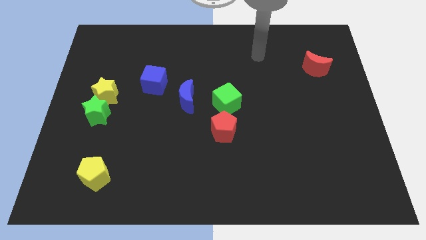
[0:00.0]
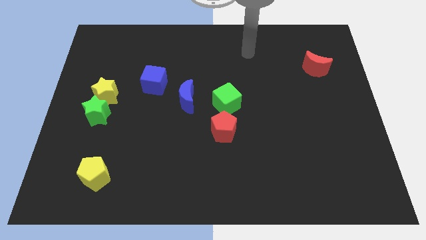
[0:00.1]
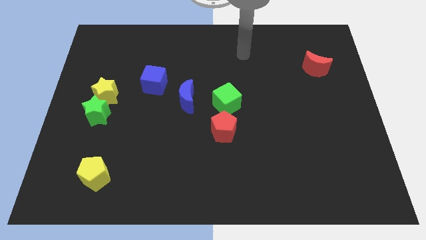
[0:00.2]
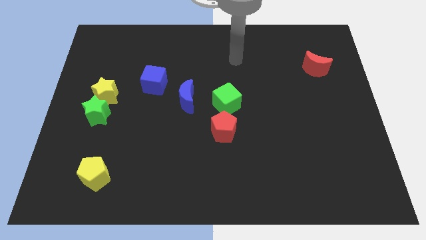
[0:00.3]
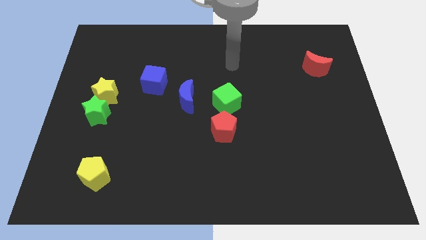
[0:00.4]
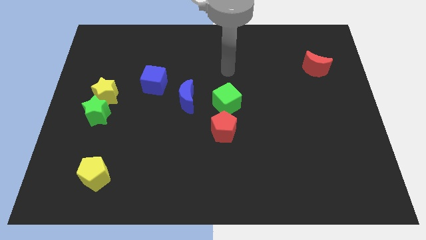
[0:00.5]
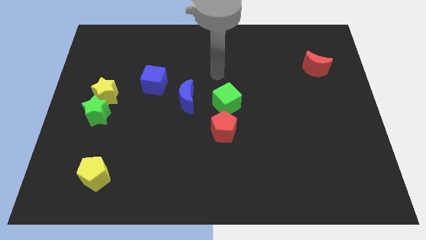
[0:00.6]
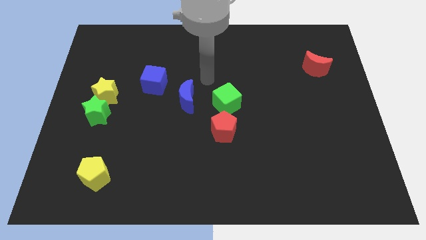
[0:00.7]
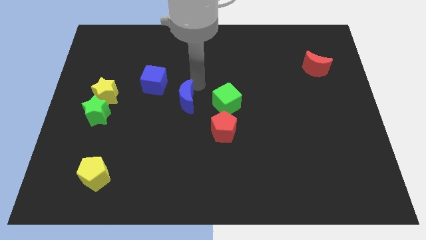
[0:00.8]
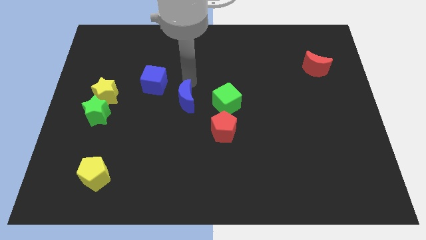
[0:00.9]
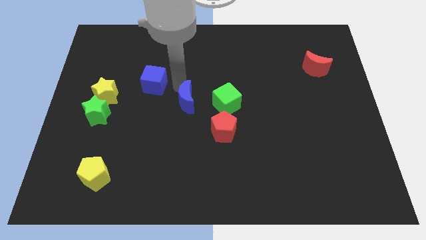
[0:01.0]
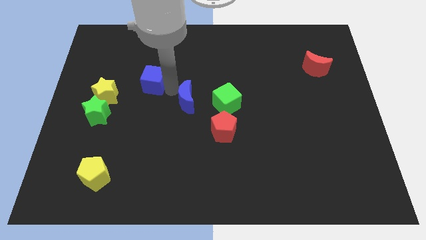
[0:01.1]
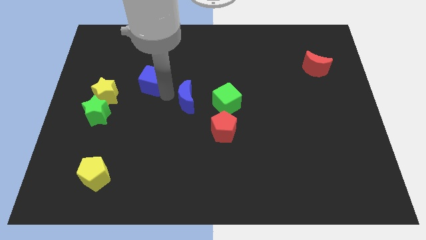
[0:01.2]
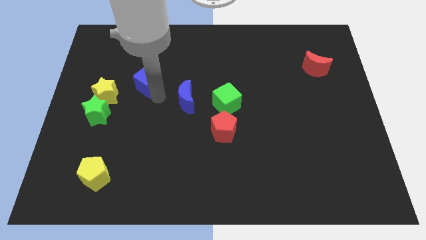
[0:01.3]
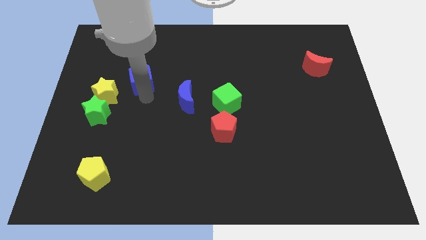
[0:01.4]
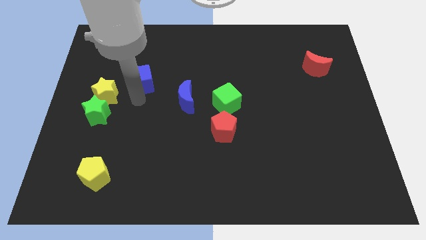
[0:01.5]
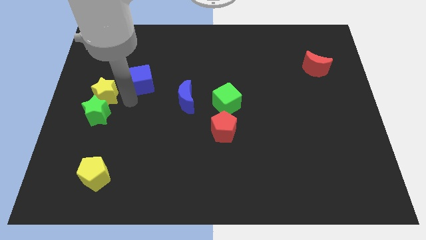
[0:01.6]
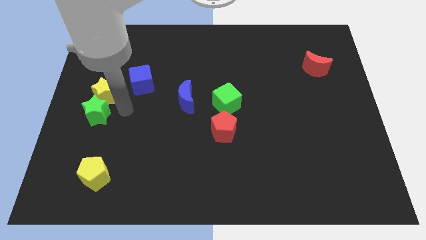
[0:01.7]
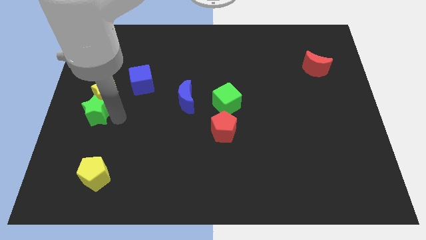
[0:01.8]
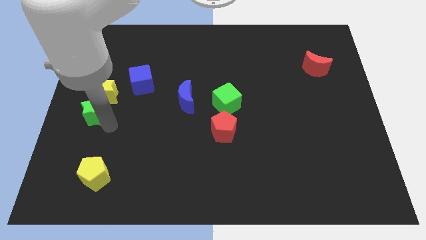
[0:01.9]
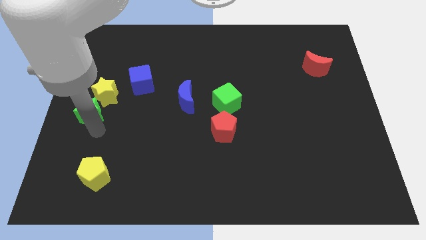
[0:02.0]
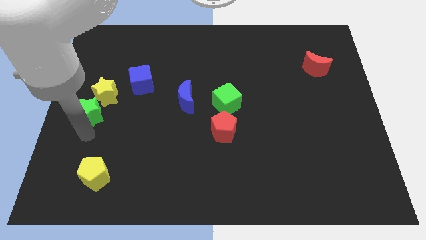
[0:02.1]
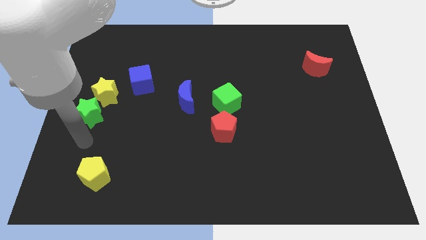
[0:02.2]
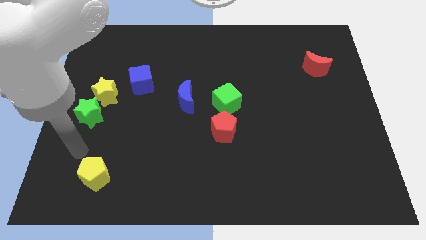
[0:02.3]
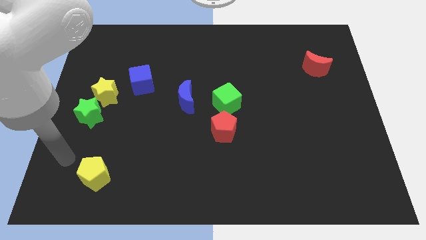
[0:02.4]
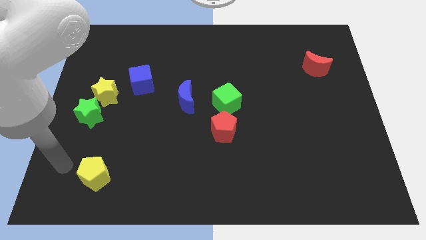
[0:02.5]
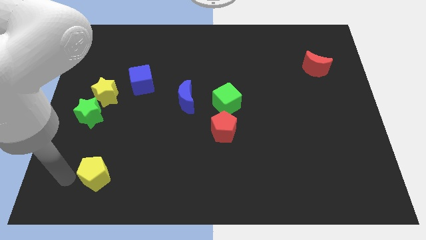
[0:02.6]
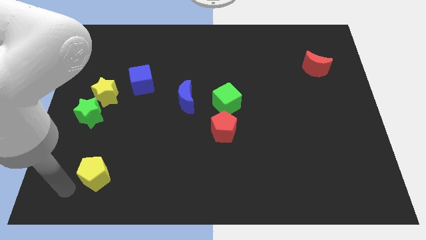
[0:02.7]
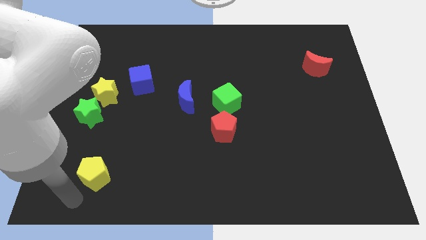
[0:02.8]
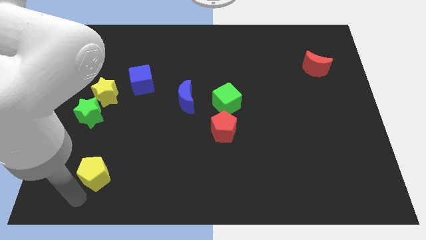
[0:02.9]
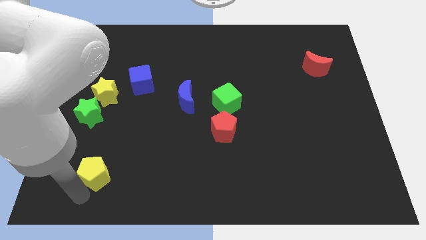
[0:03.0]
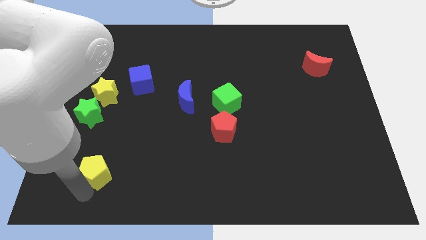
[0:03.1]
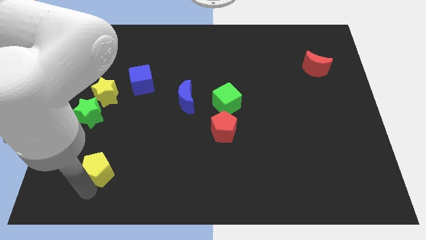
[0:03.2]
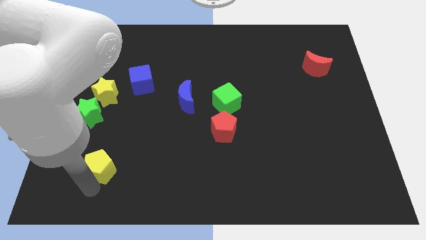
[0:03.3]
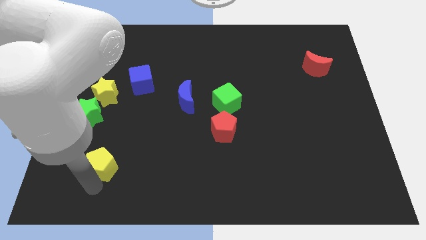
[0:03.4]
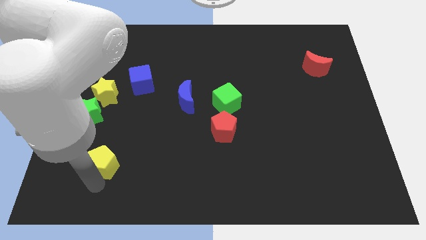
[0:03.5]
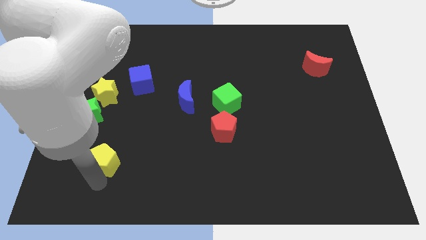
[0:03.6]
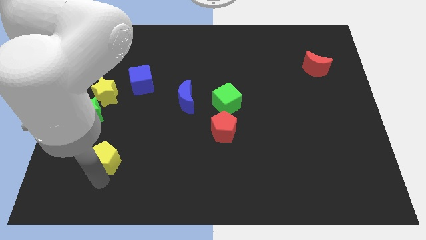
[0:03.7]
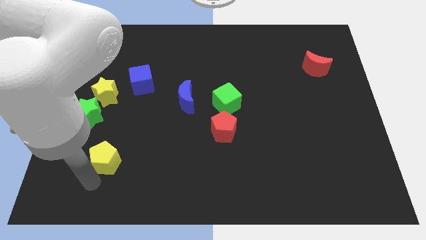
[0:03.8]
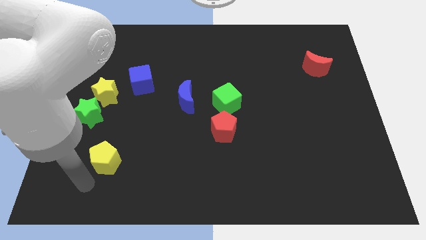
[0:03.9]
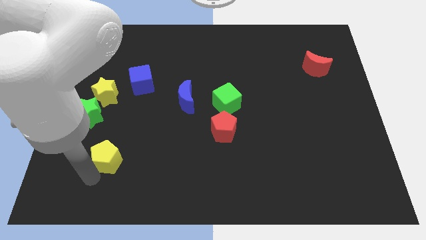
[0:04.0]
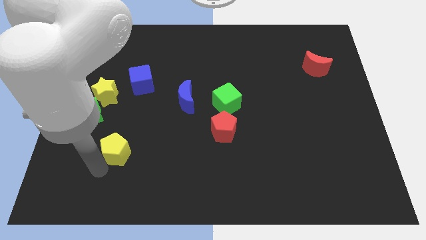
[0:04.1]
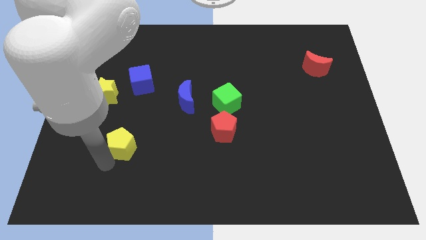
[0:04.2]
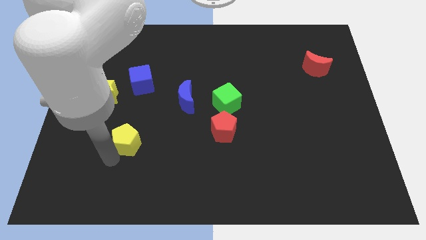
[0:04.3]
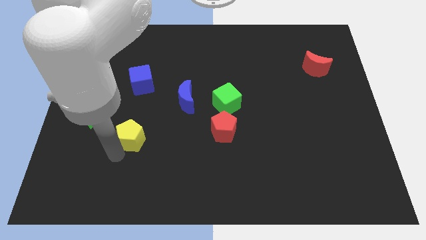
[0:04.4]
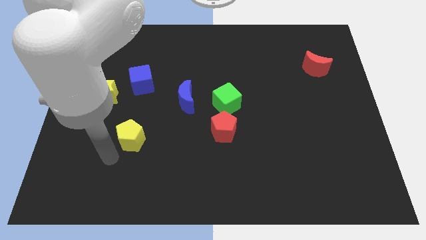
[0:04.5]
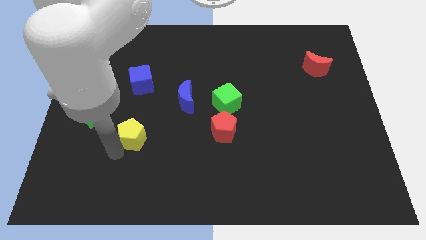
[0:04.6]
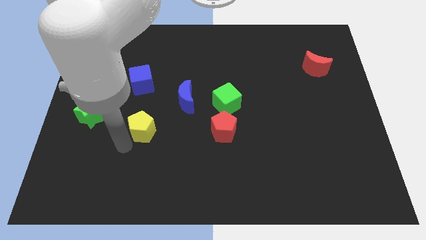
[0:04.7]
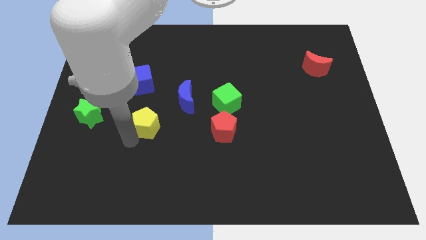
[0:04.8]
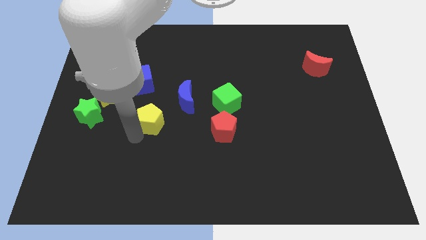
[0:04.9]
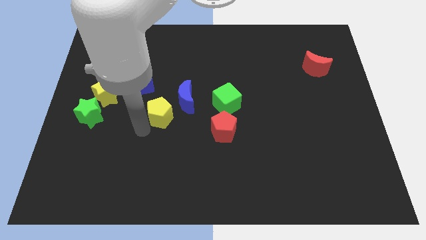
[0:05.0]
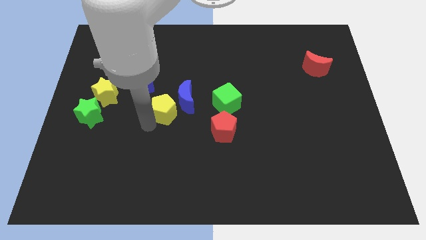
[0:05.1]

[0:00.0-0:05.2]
slide the yellow pentagon close to the blue moon

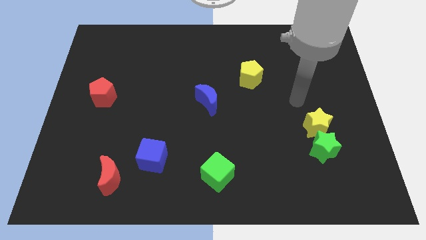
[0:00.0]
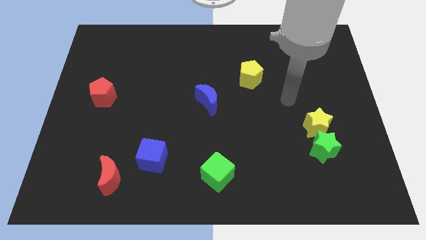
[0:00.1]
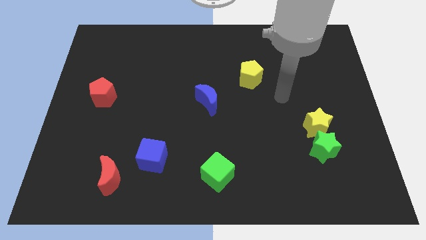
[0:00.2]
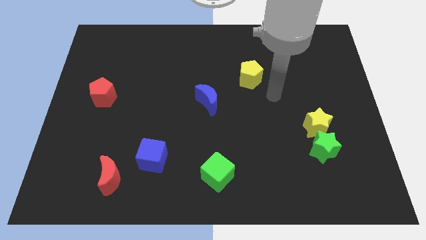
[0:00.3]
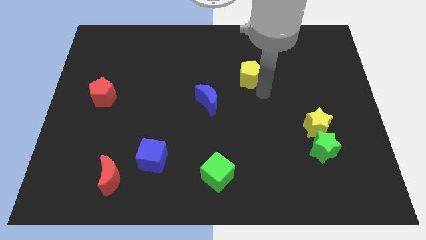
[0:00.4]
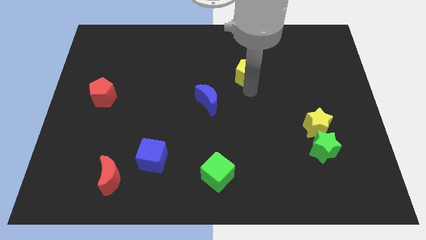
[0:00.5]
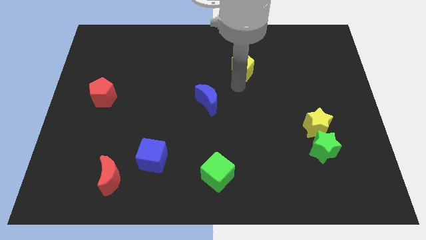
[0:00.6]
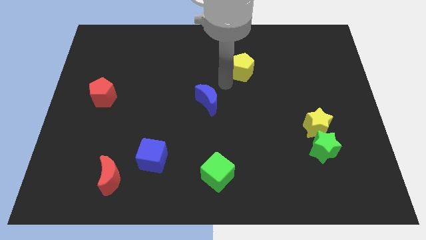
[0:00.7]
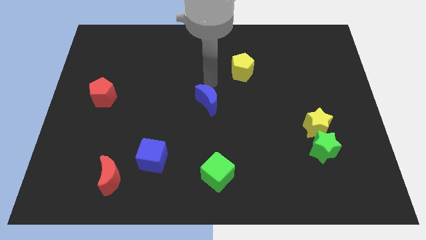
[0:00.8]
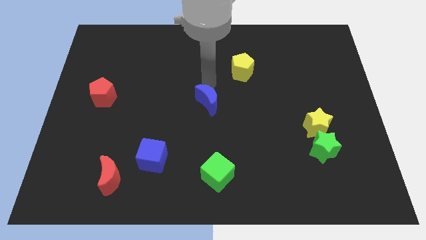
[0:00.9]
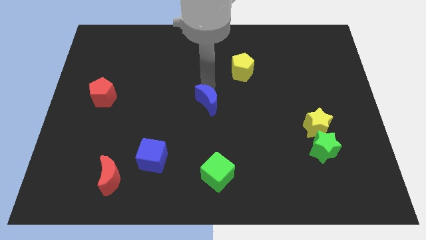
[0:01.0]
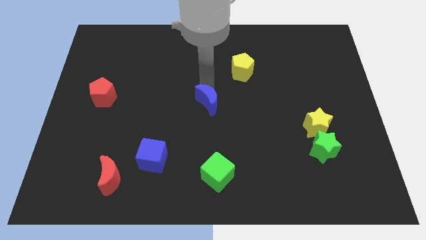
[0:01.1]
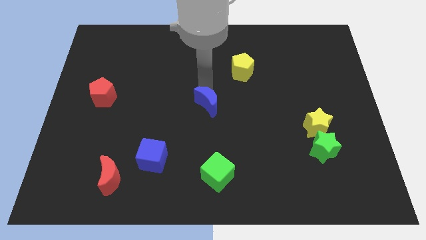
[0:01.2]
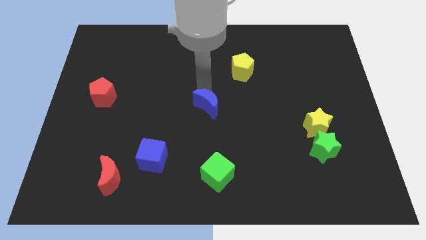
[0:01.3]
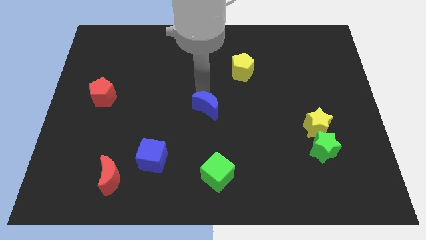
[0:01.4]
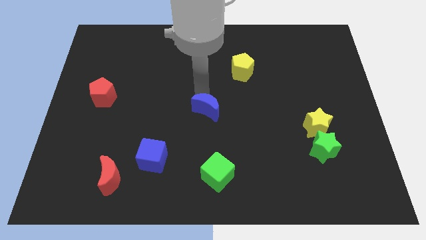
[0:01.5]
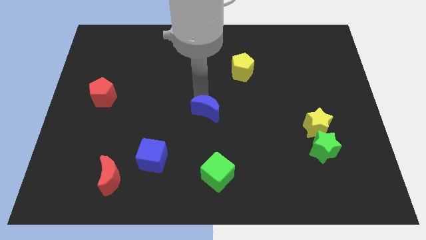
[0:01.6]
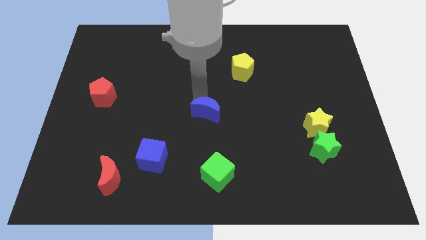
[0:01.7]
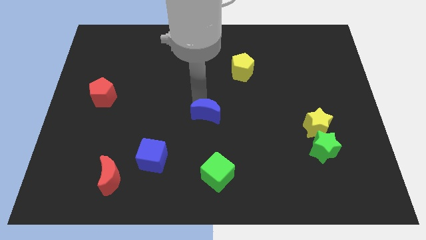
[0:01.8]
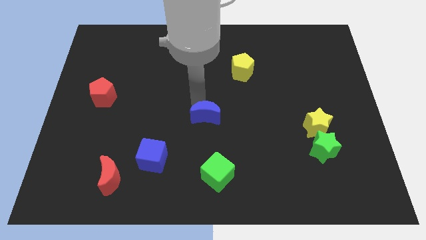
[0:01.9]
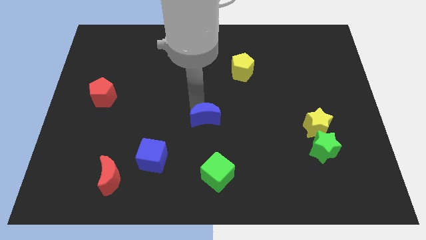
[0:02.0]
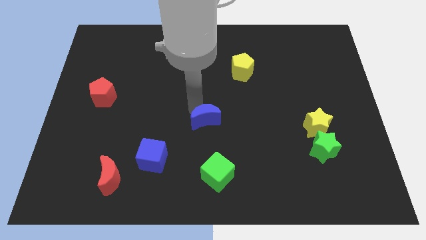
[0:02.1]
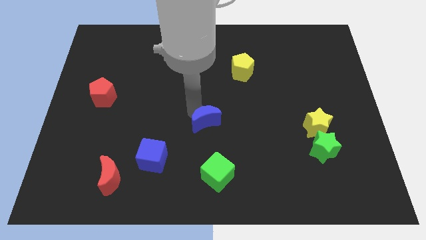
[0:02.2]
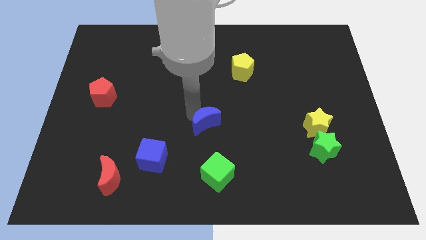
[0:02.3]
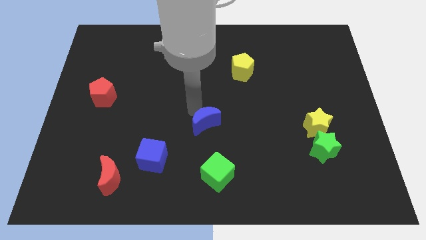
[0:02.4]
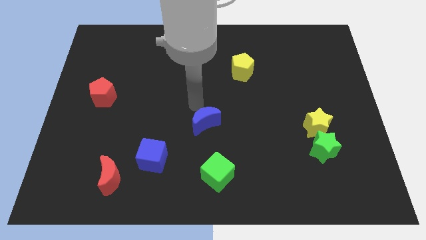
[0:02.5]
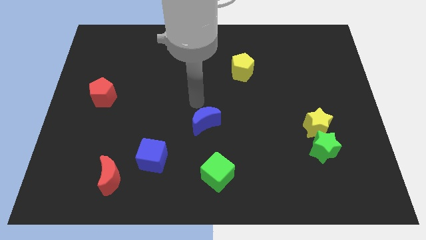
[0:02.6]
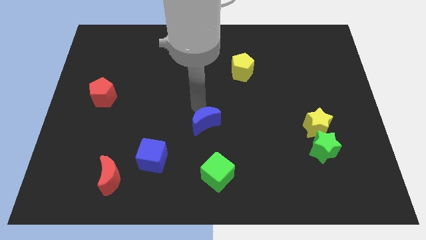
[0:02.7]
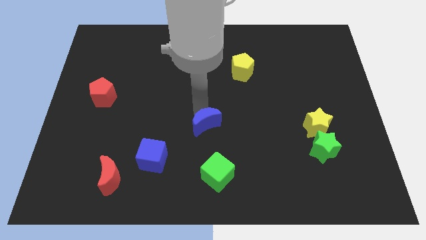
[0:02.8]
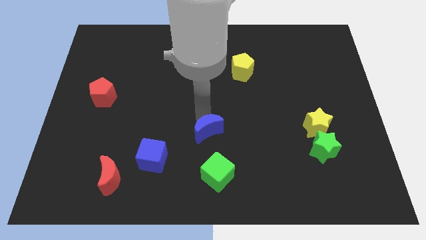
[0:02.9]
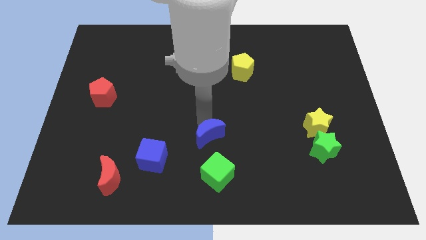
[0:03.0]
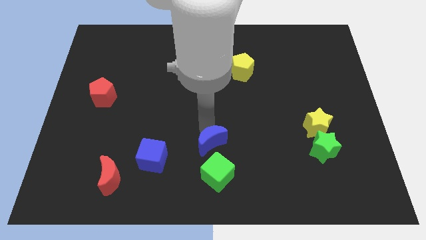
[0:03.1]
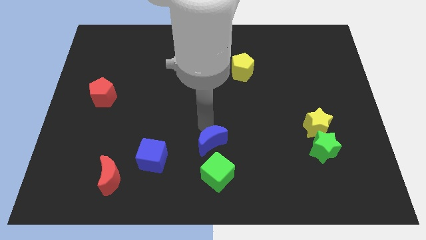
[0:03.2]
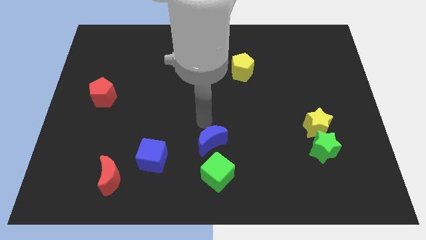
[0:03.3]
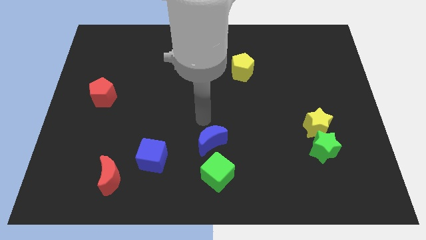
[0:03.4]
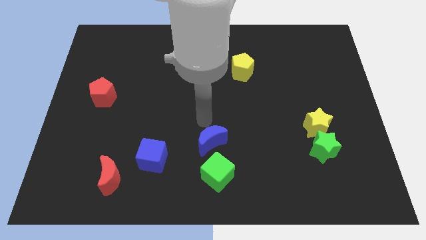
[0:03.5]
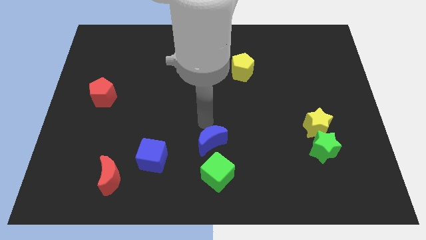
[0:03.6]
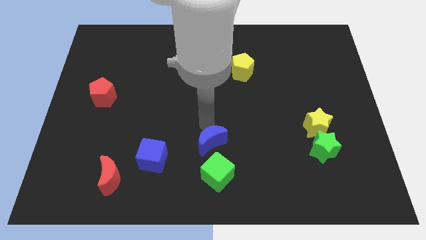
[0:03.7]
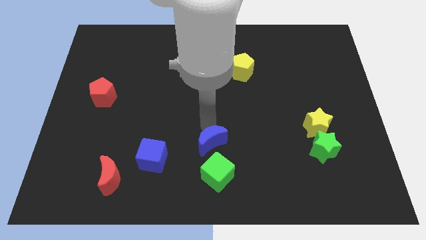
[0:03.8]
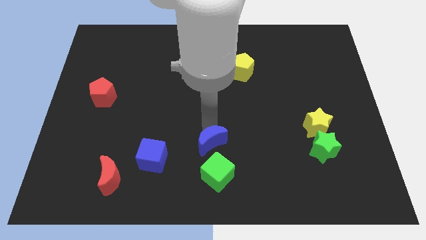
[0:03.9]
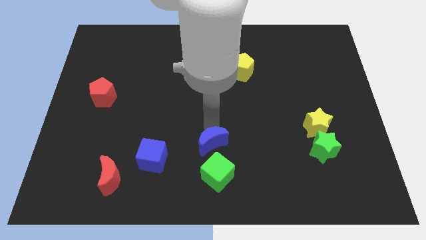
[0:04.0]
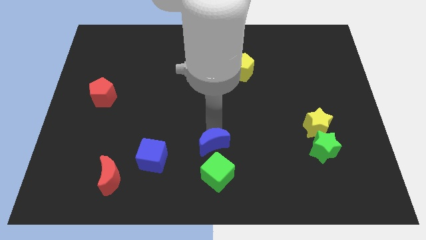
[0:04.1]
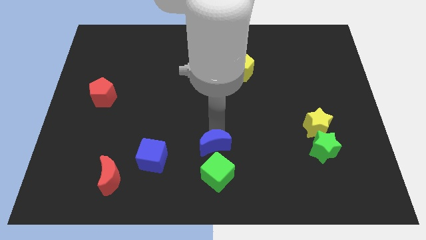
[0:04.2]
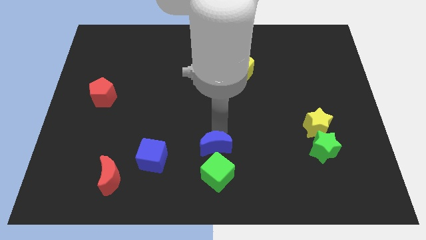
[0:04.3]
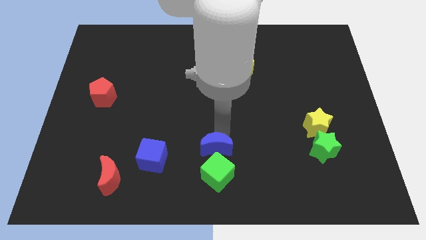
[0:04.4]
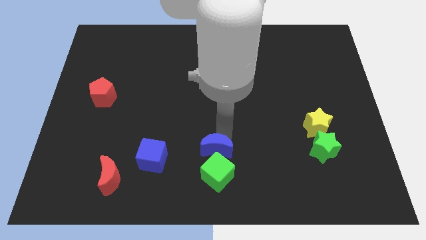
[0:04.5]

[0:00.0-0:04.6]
slide the blue moon to the green cube
